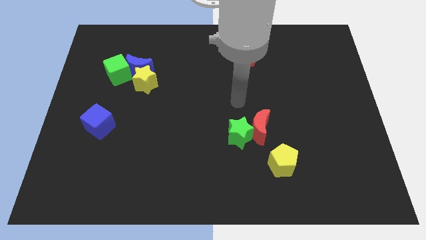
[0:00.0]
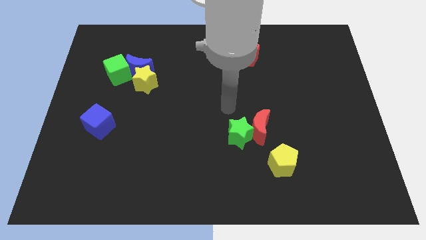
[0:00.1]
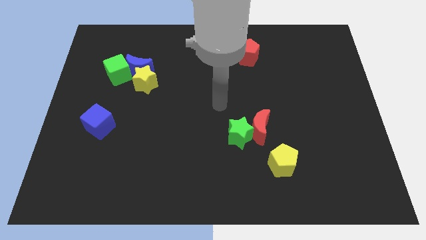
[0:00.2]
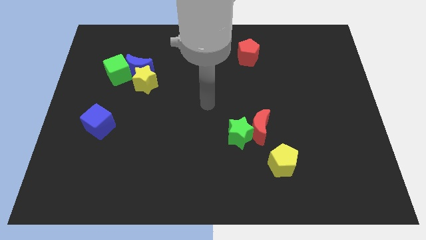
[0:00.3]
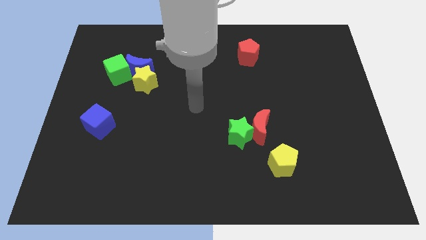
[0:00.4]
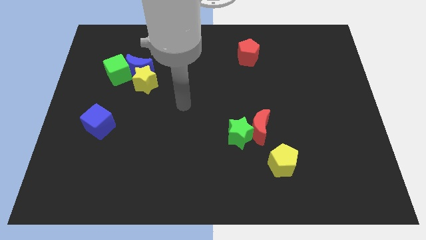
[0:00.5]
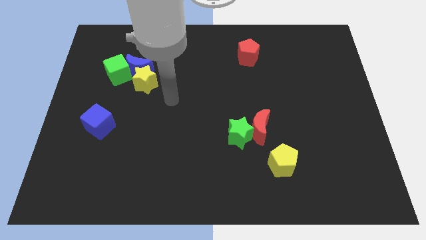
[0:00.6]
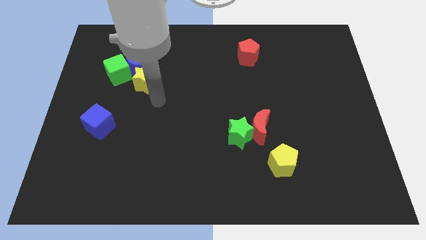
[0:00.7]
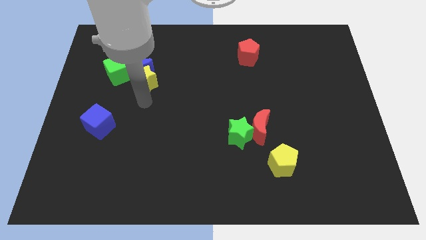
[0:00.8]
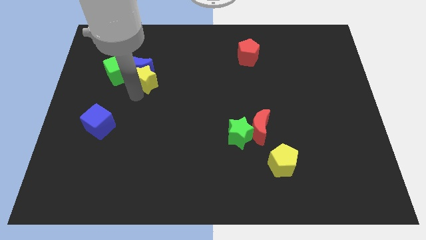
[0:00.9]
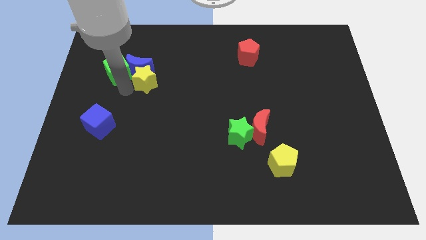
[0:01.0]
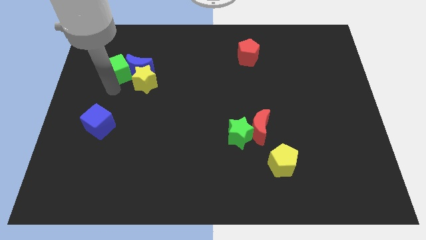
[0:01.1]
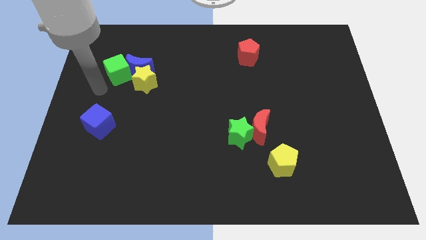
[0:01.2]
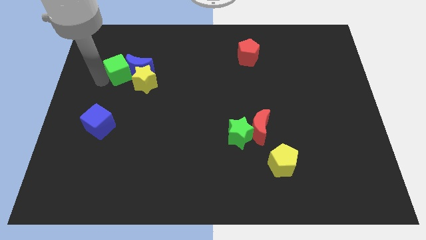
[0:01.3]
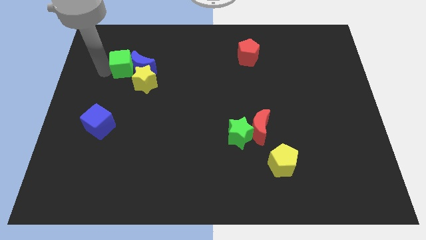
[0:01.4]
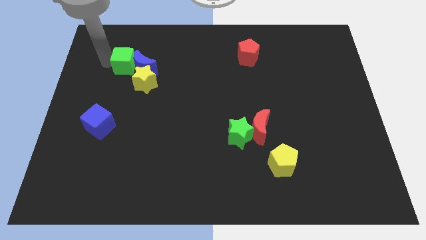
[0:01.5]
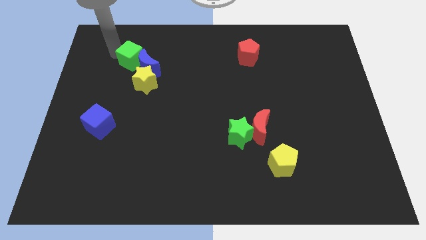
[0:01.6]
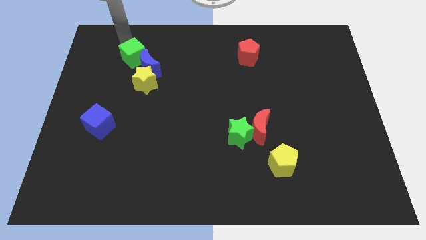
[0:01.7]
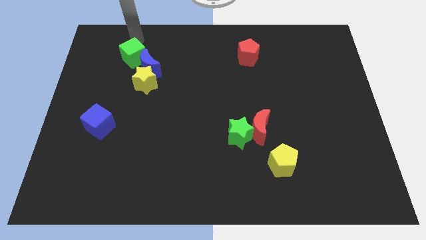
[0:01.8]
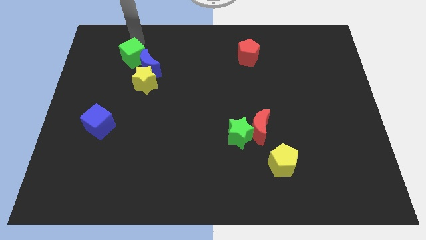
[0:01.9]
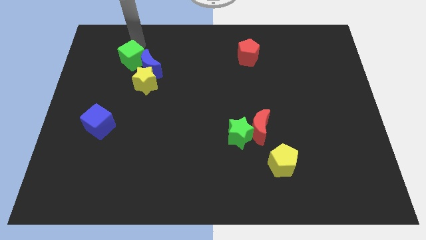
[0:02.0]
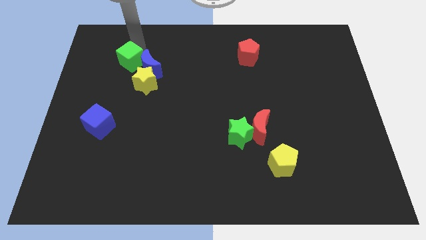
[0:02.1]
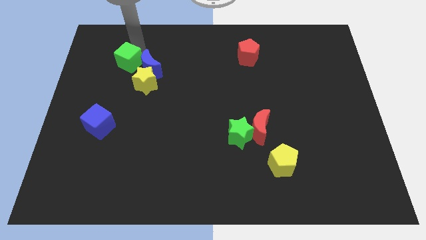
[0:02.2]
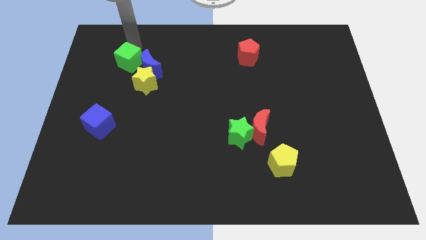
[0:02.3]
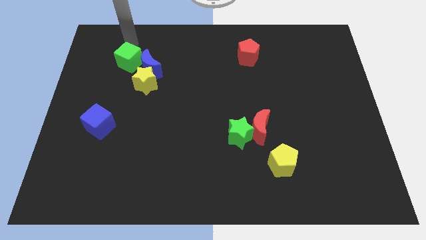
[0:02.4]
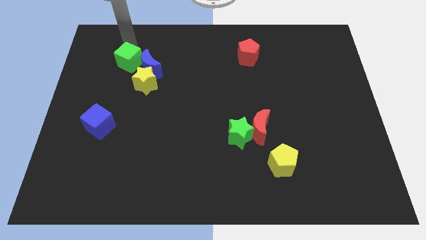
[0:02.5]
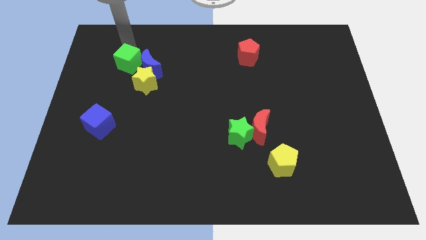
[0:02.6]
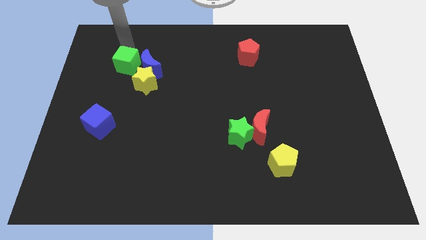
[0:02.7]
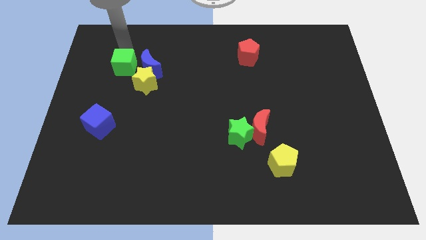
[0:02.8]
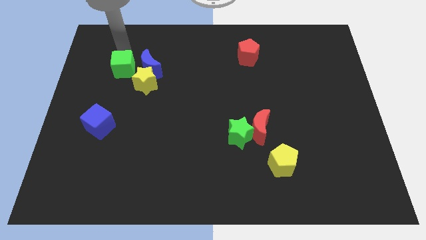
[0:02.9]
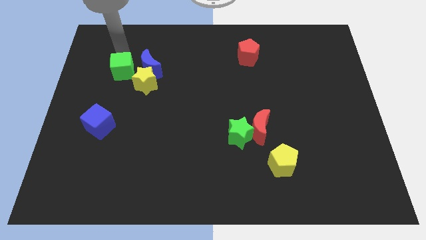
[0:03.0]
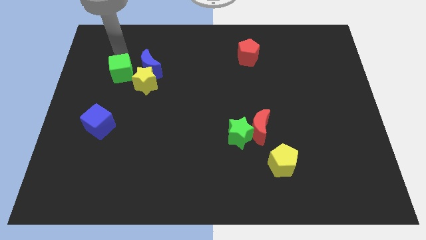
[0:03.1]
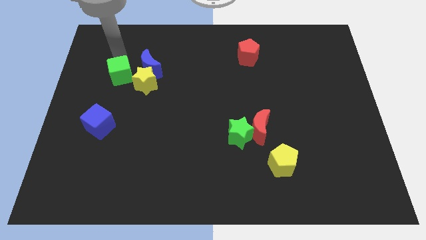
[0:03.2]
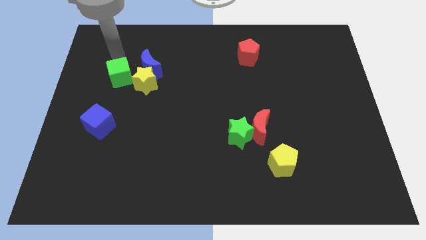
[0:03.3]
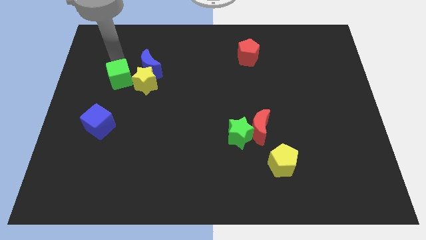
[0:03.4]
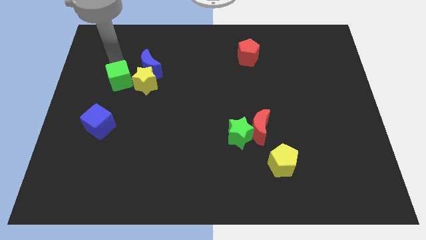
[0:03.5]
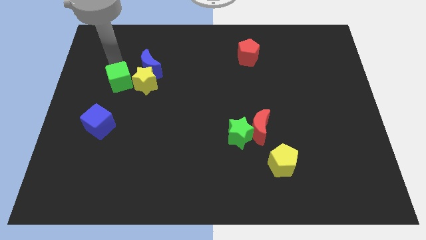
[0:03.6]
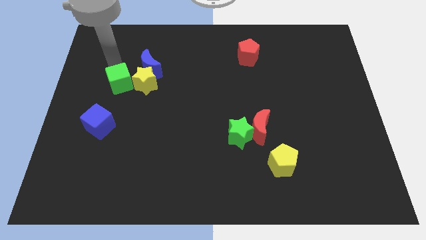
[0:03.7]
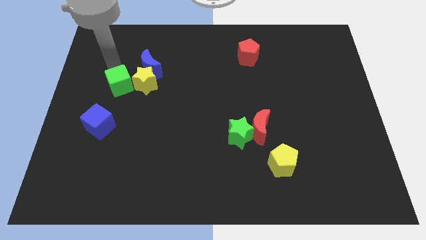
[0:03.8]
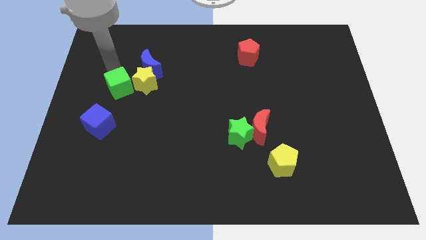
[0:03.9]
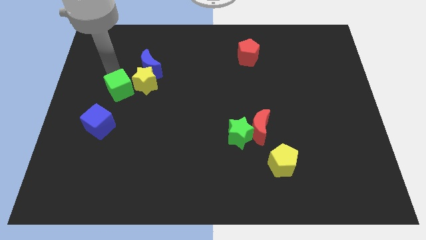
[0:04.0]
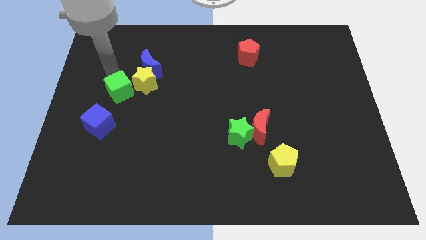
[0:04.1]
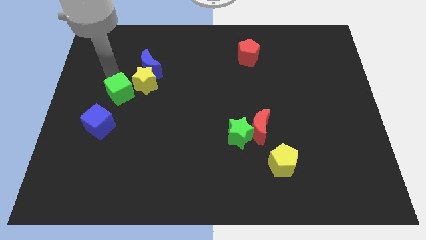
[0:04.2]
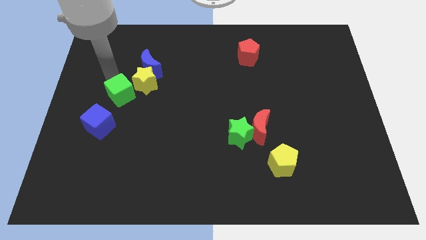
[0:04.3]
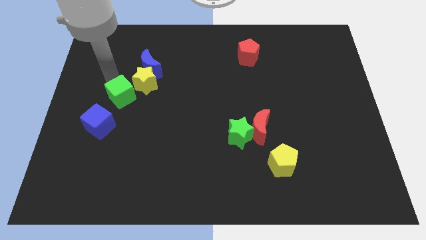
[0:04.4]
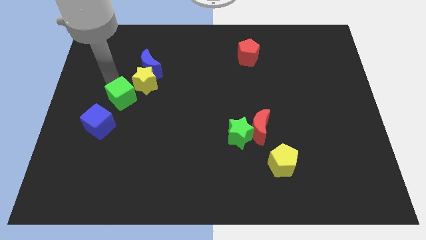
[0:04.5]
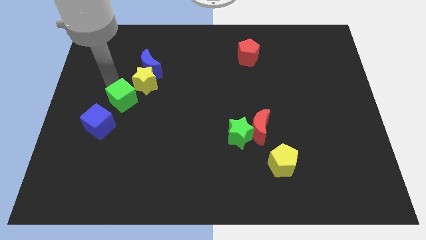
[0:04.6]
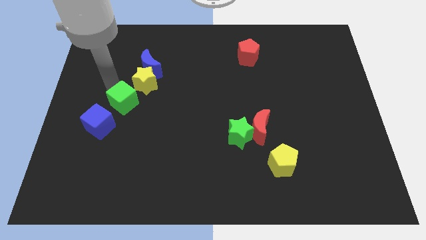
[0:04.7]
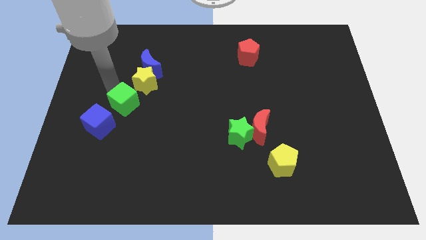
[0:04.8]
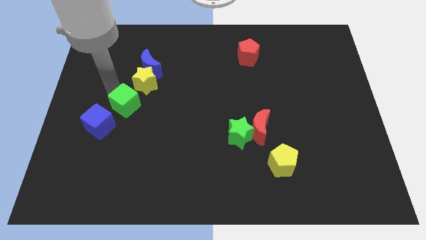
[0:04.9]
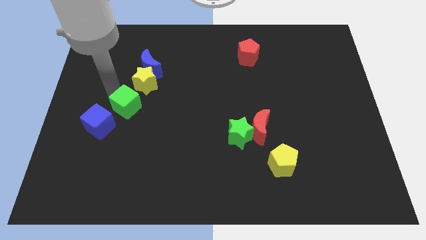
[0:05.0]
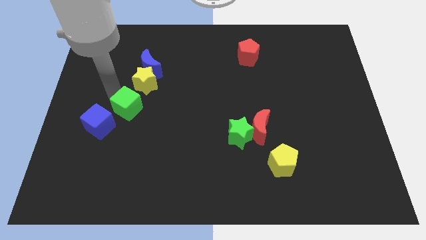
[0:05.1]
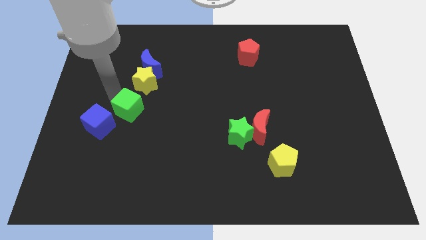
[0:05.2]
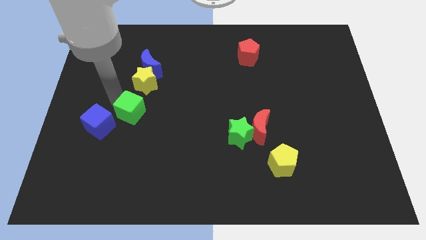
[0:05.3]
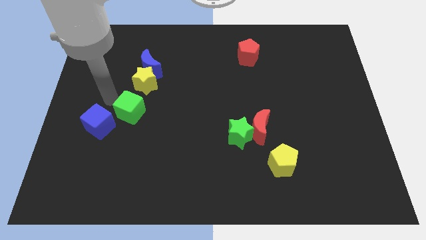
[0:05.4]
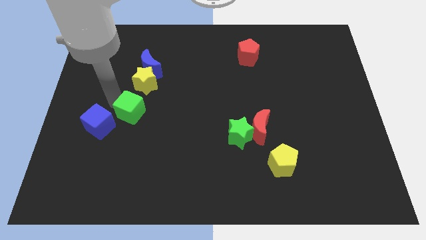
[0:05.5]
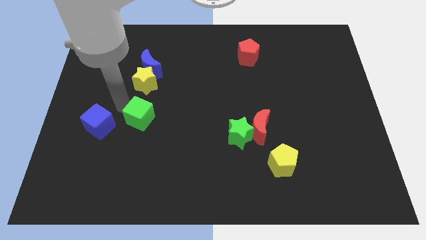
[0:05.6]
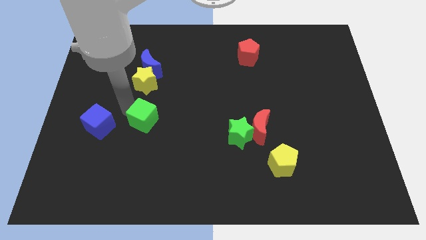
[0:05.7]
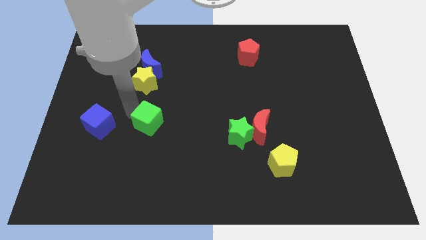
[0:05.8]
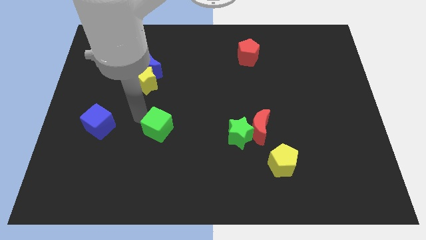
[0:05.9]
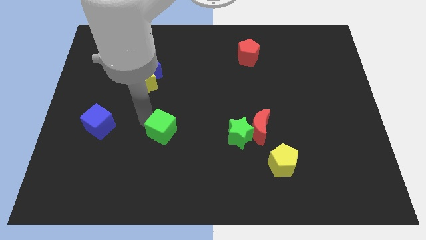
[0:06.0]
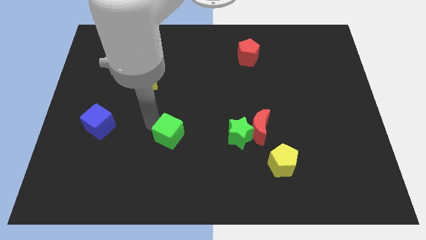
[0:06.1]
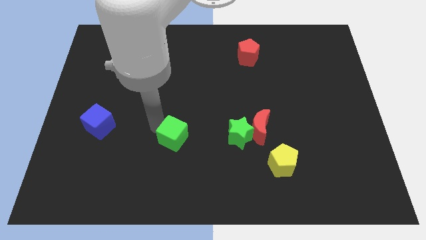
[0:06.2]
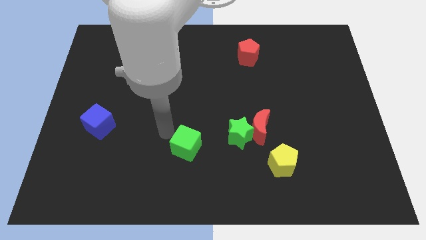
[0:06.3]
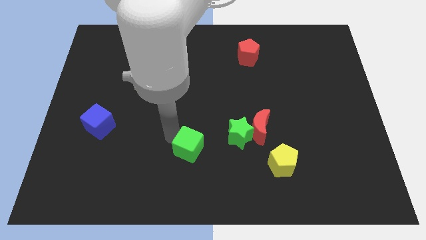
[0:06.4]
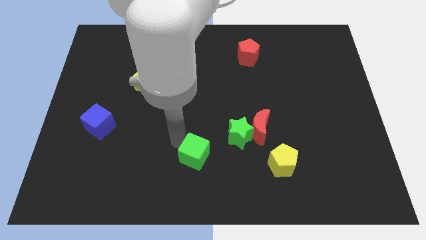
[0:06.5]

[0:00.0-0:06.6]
push the green cube diagonally down and to the left of the green star

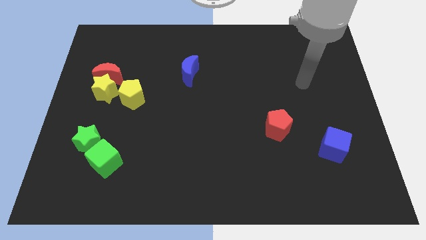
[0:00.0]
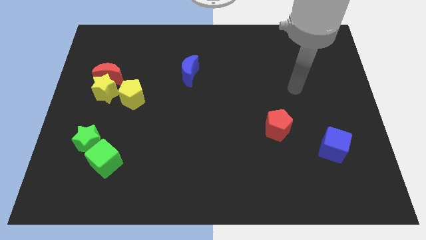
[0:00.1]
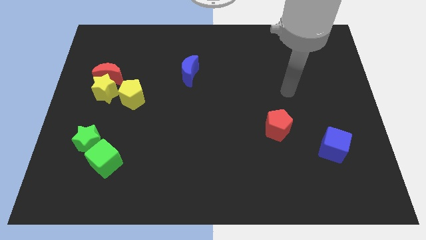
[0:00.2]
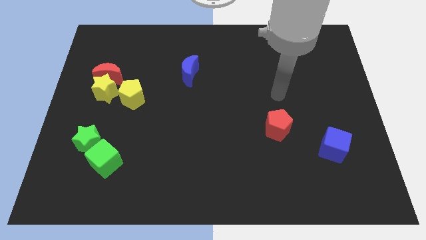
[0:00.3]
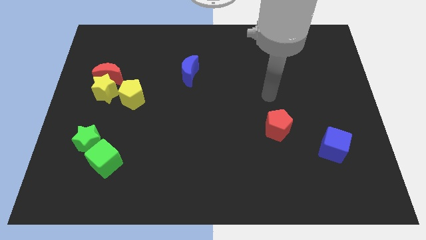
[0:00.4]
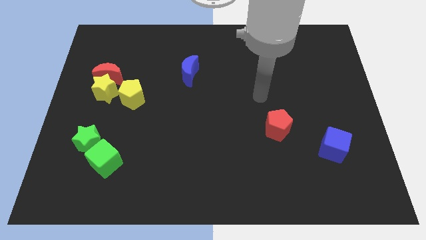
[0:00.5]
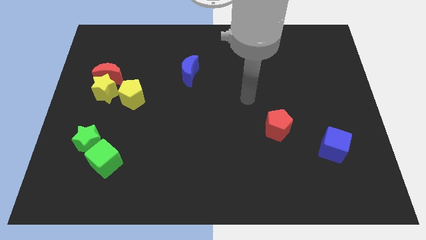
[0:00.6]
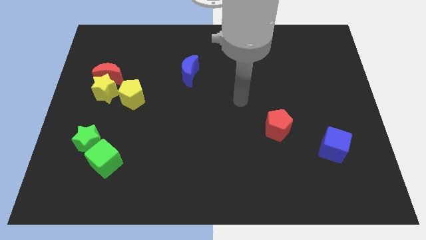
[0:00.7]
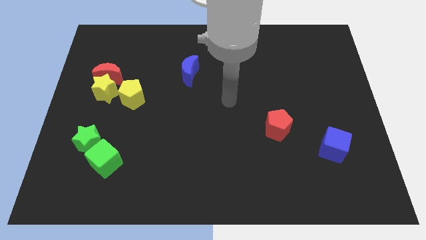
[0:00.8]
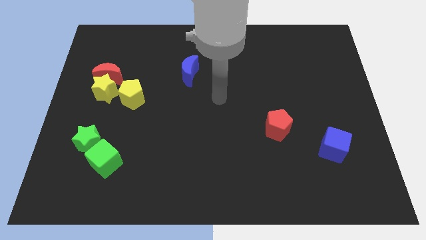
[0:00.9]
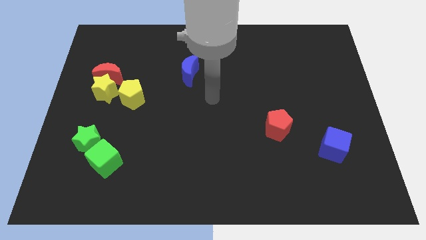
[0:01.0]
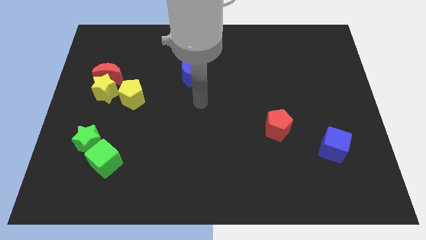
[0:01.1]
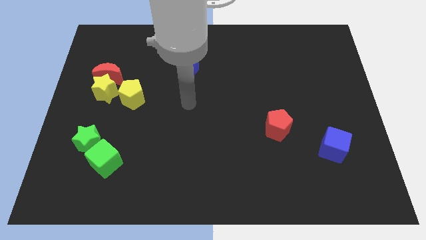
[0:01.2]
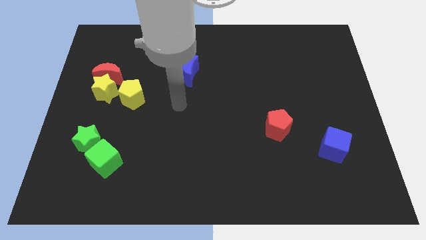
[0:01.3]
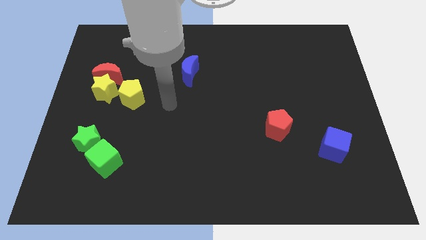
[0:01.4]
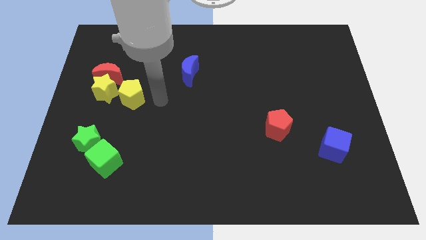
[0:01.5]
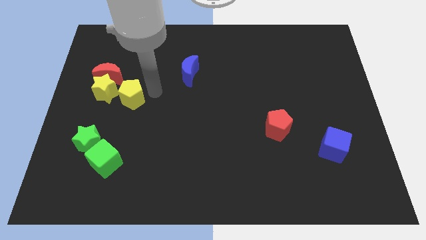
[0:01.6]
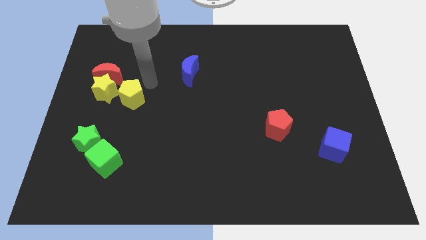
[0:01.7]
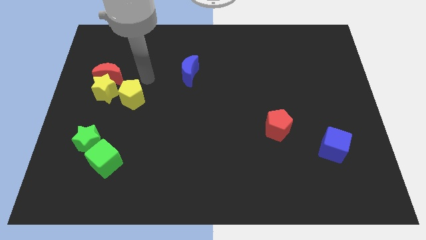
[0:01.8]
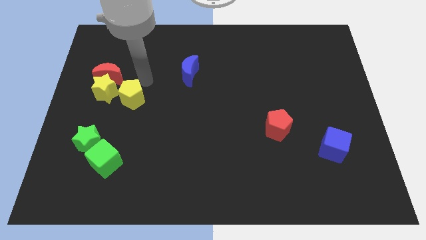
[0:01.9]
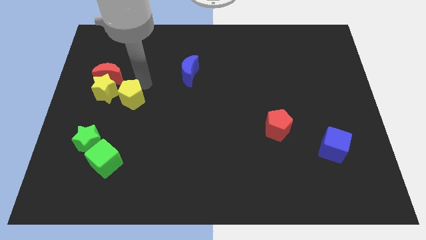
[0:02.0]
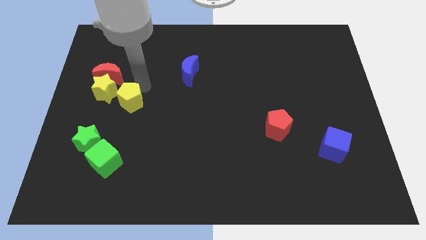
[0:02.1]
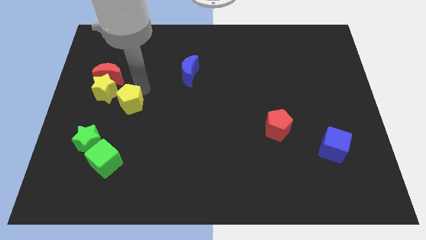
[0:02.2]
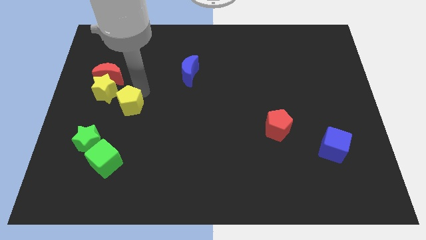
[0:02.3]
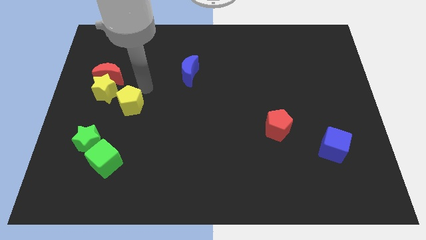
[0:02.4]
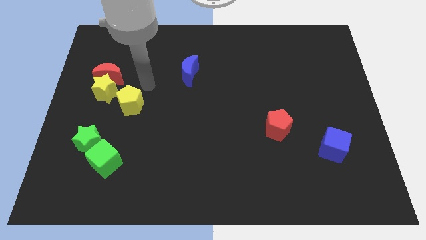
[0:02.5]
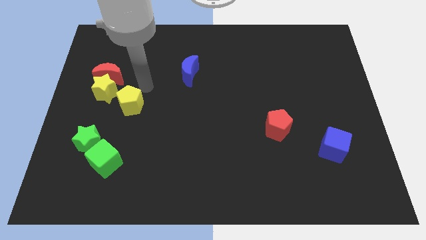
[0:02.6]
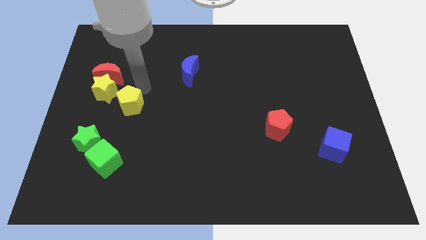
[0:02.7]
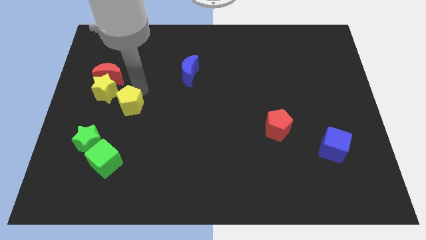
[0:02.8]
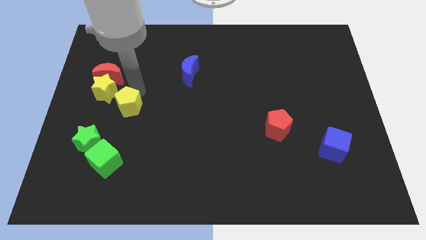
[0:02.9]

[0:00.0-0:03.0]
push the yellow pentagon to the top side of the green cube
